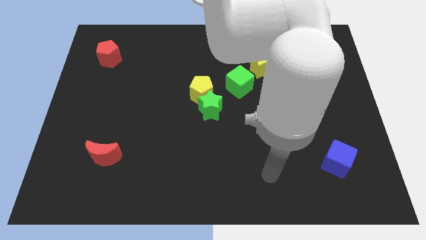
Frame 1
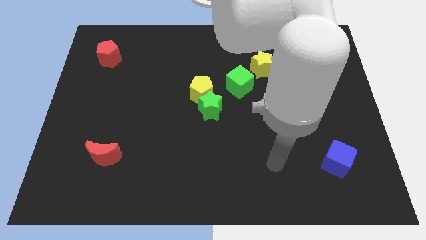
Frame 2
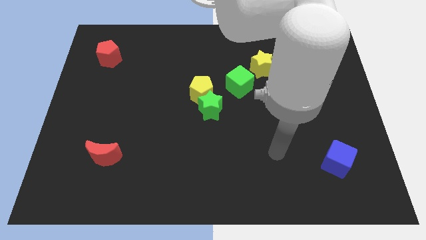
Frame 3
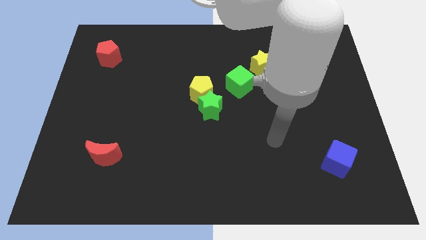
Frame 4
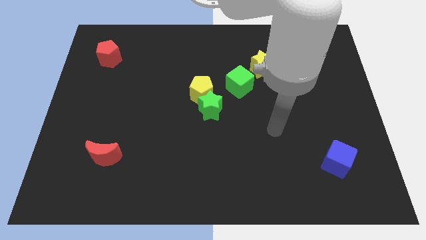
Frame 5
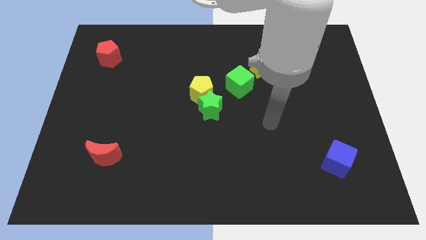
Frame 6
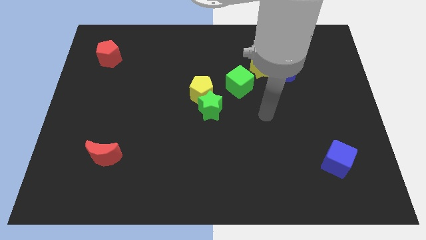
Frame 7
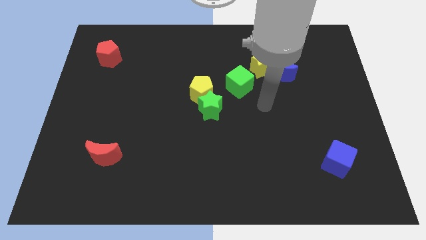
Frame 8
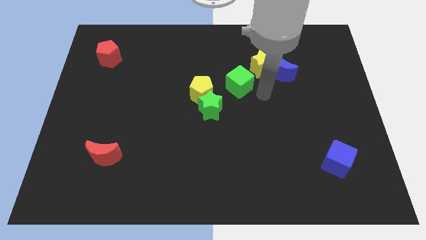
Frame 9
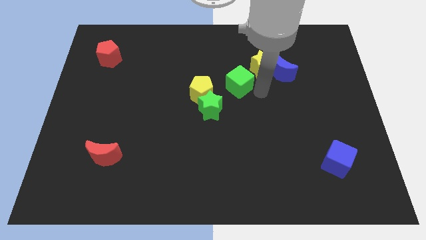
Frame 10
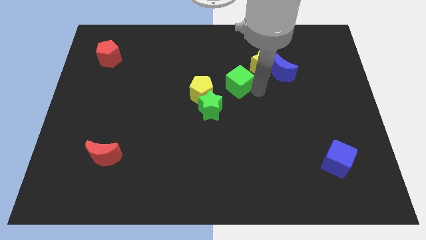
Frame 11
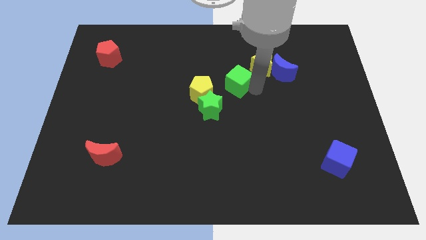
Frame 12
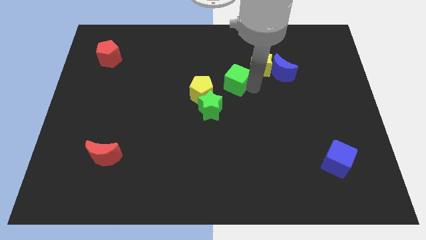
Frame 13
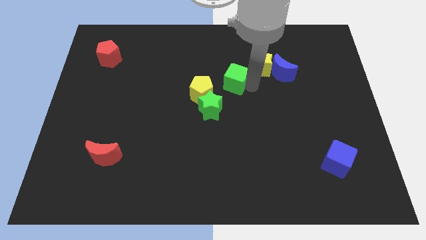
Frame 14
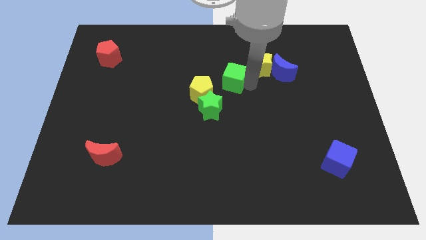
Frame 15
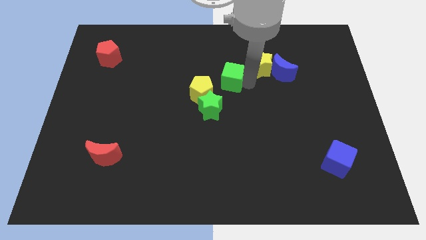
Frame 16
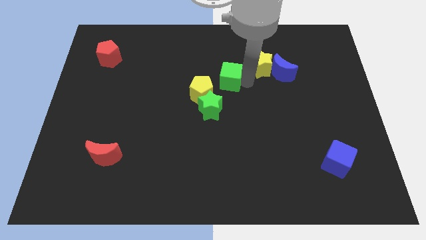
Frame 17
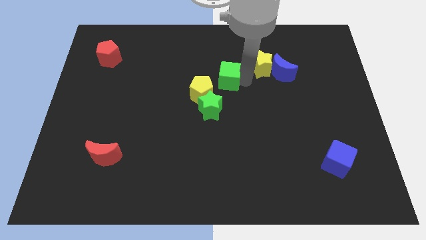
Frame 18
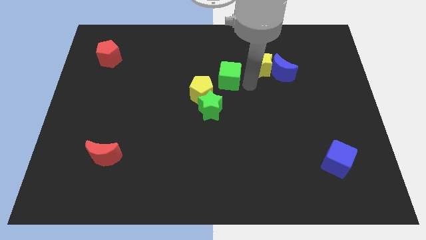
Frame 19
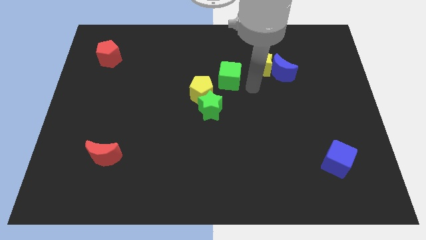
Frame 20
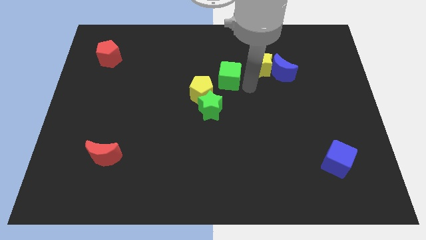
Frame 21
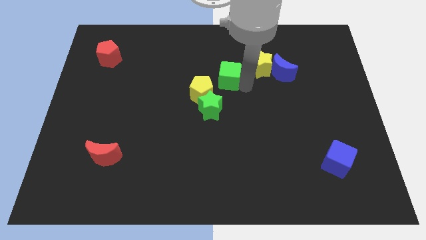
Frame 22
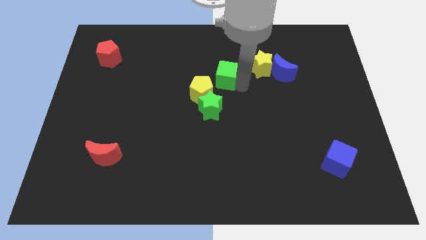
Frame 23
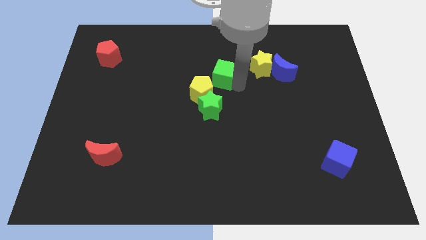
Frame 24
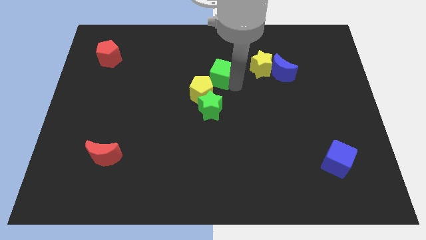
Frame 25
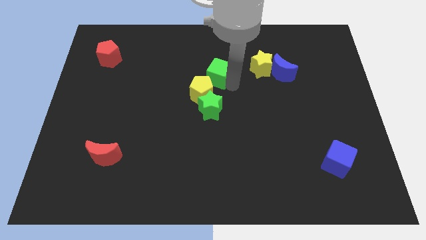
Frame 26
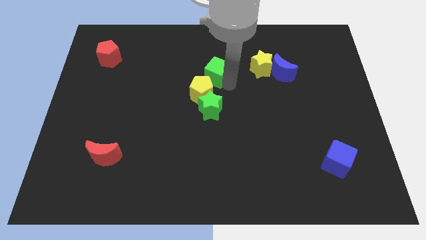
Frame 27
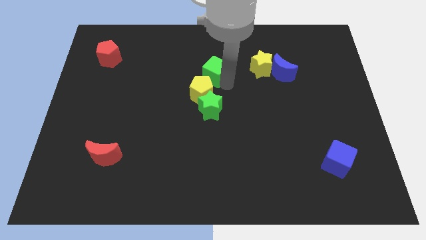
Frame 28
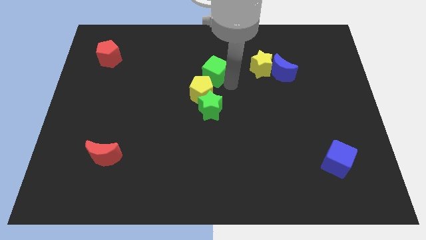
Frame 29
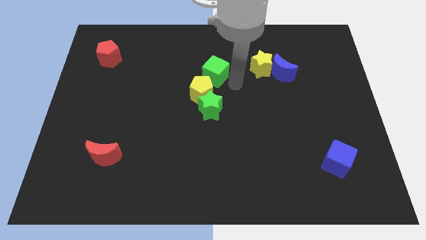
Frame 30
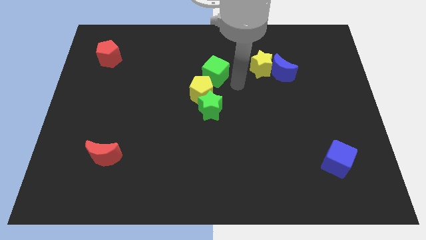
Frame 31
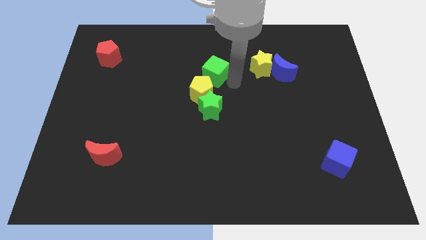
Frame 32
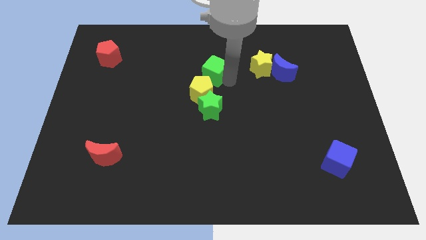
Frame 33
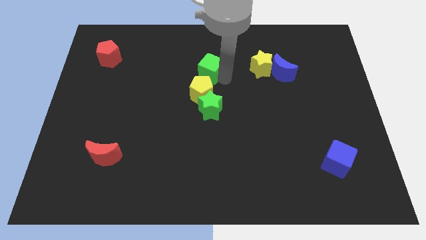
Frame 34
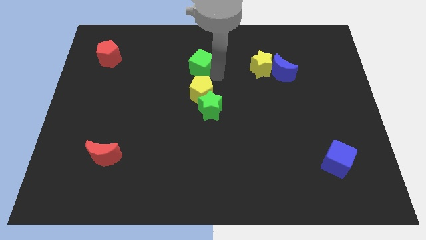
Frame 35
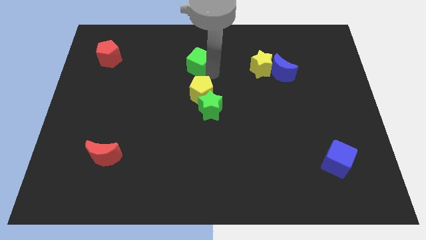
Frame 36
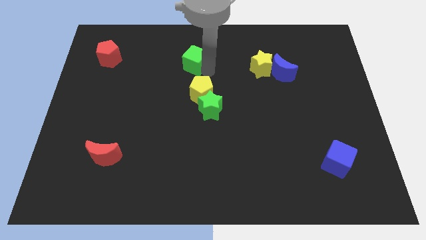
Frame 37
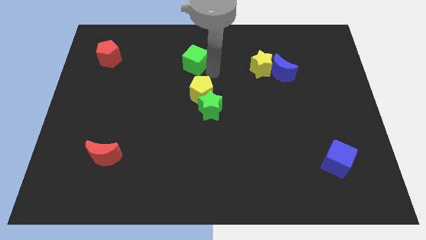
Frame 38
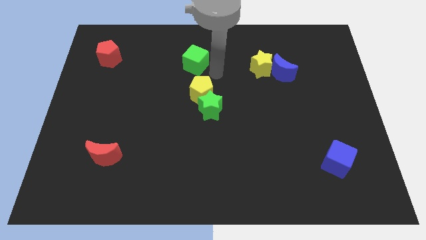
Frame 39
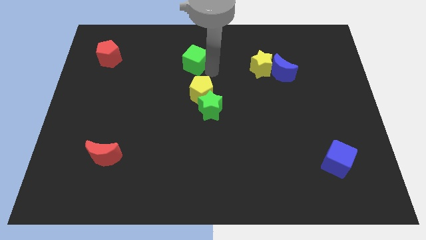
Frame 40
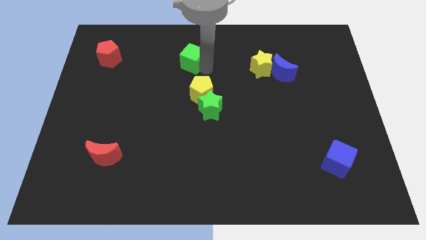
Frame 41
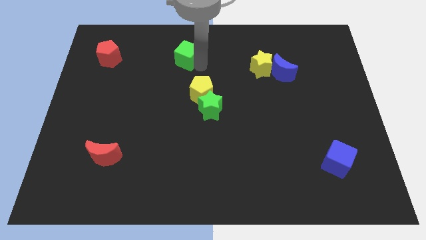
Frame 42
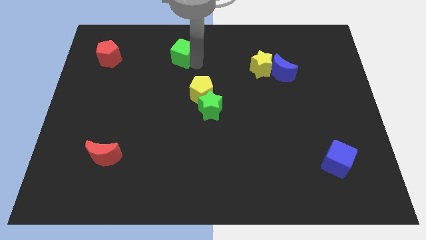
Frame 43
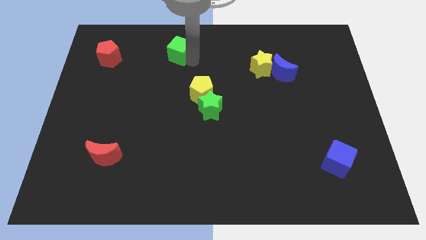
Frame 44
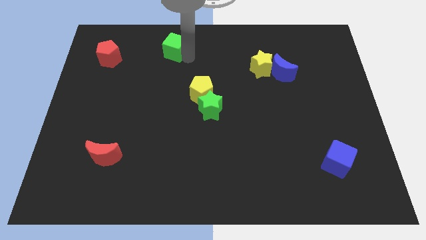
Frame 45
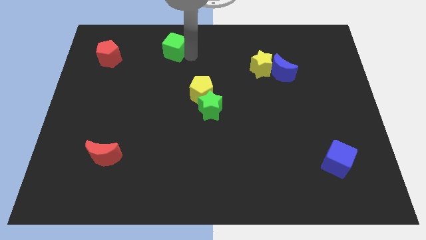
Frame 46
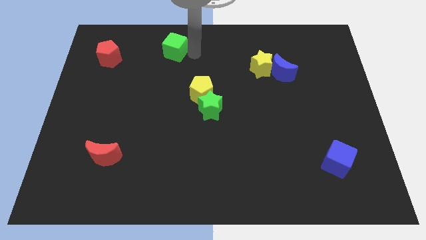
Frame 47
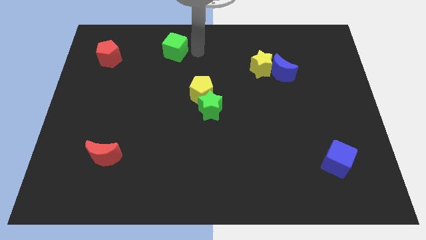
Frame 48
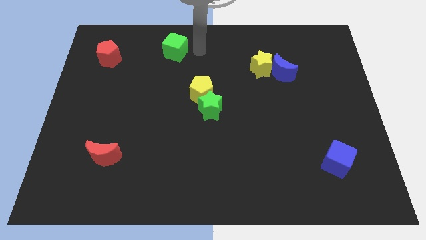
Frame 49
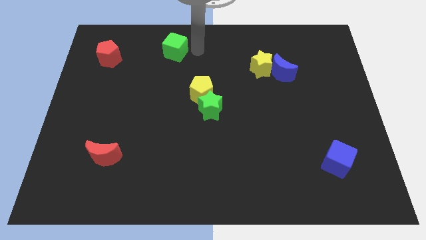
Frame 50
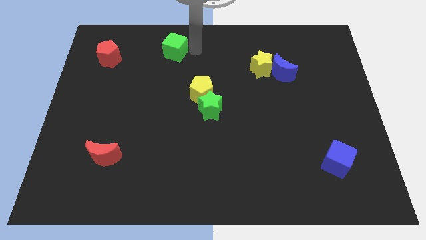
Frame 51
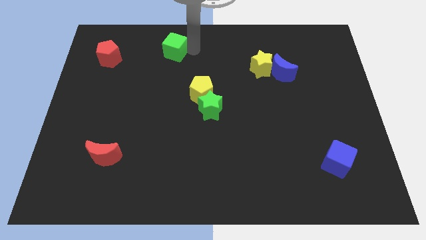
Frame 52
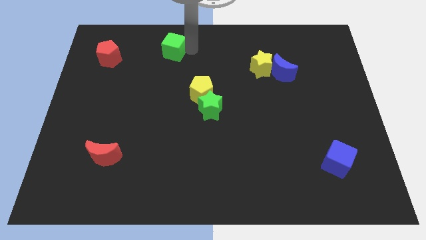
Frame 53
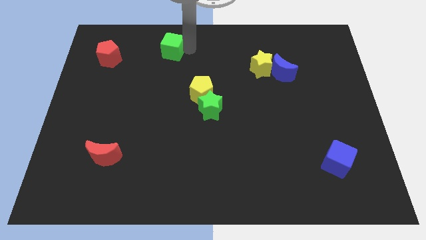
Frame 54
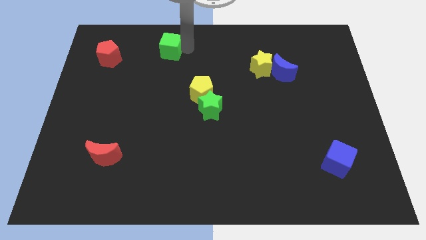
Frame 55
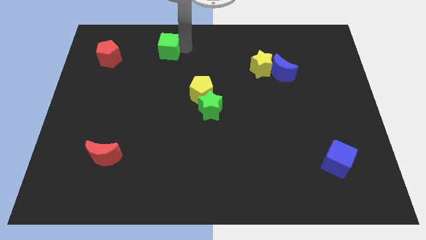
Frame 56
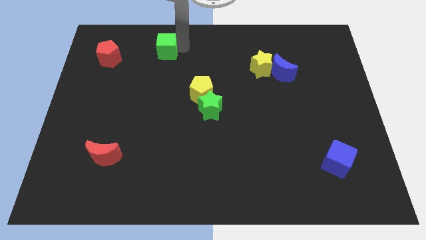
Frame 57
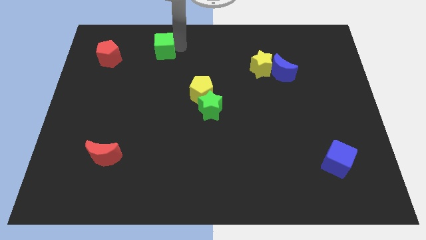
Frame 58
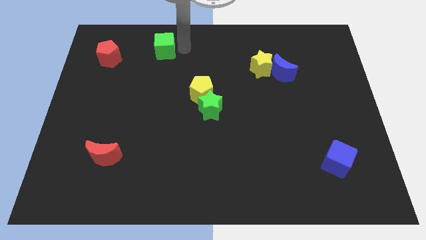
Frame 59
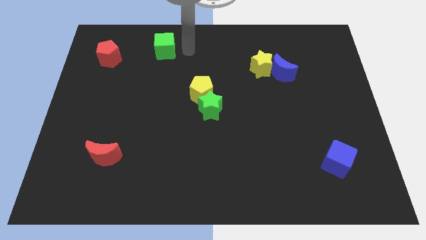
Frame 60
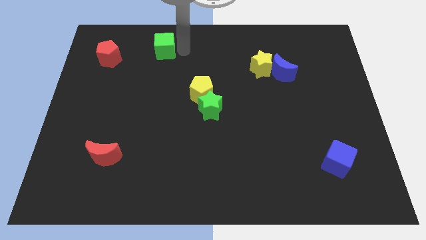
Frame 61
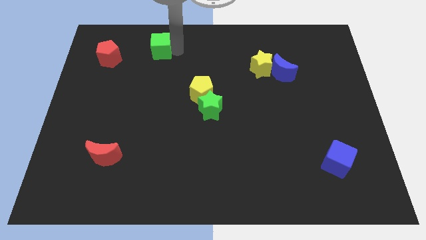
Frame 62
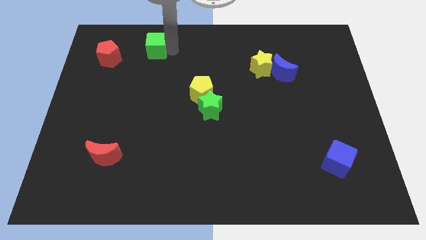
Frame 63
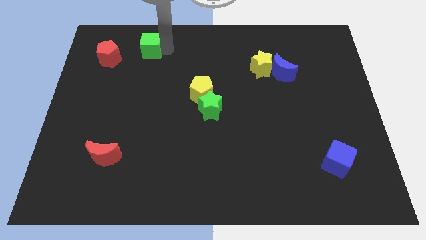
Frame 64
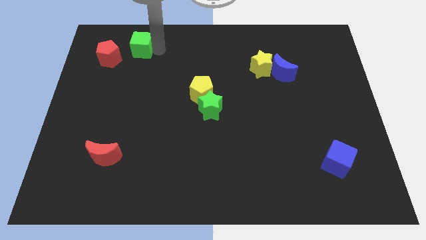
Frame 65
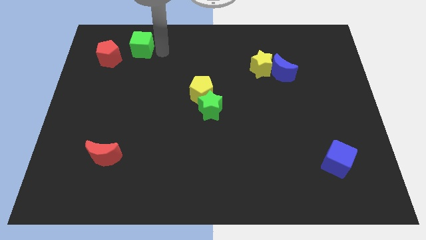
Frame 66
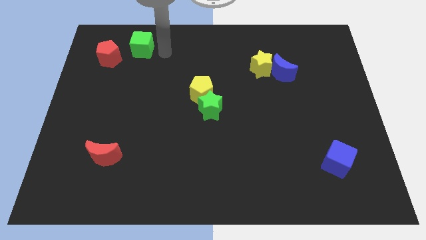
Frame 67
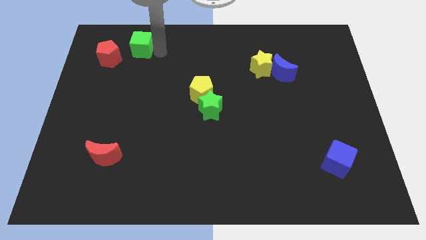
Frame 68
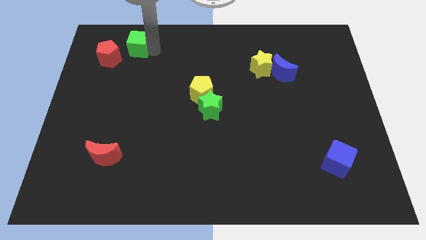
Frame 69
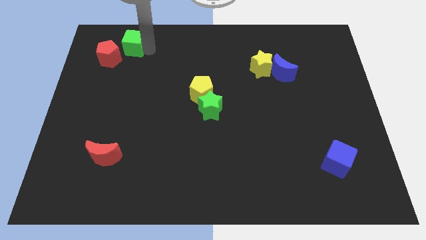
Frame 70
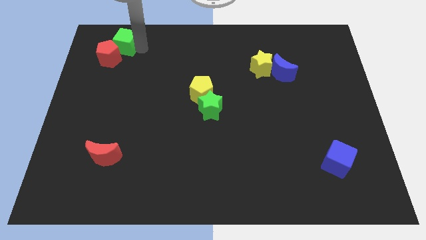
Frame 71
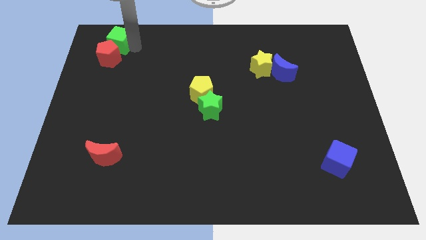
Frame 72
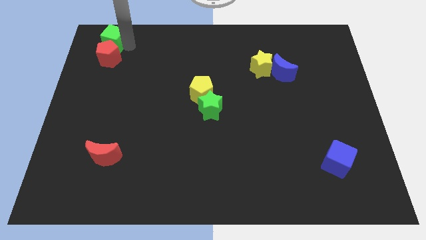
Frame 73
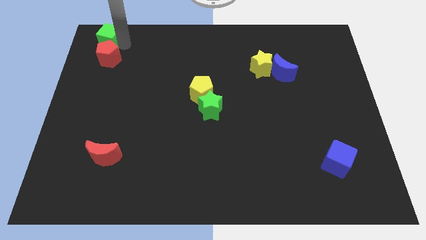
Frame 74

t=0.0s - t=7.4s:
slide the green cube to the top left
